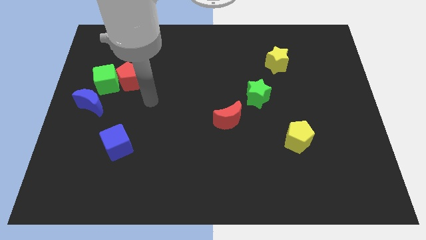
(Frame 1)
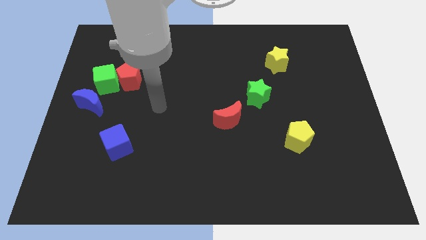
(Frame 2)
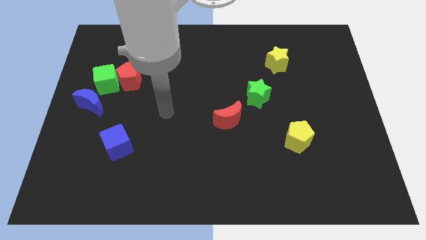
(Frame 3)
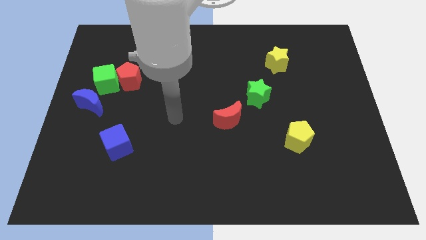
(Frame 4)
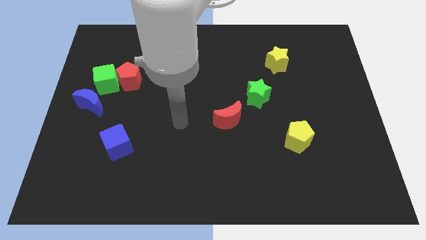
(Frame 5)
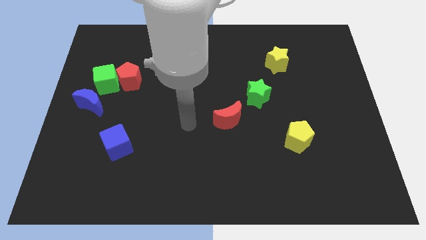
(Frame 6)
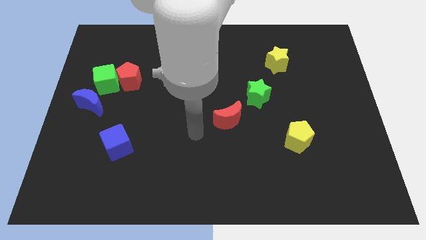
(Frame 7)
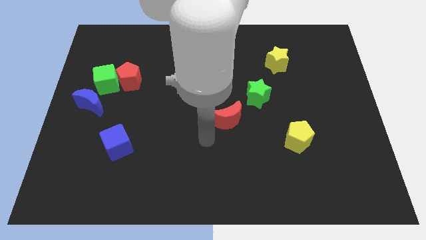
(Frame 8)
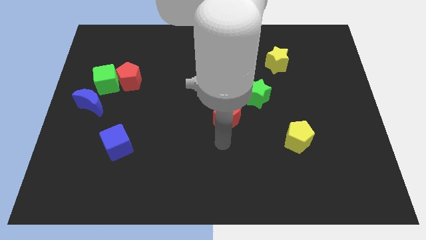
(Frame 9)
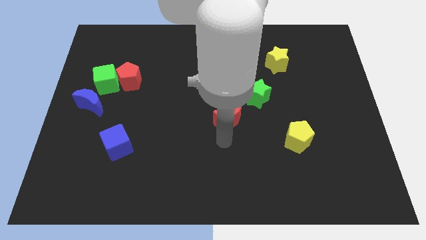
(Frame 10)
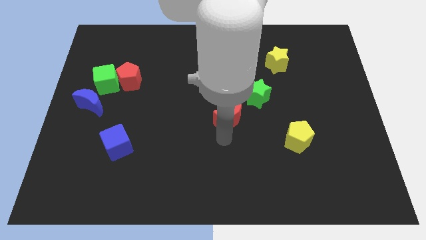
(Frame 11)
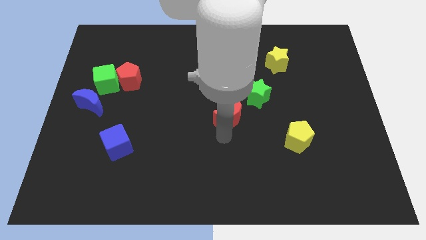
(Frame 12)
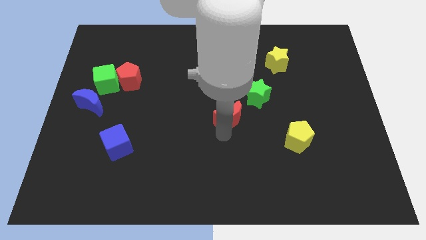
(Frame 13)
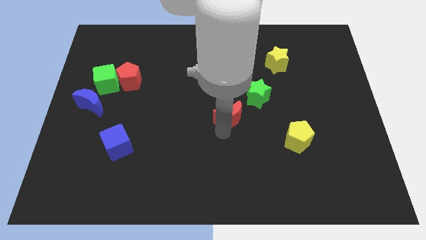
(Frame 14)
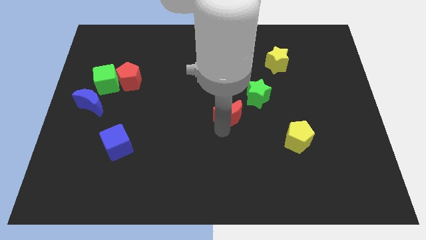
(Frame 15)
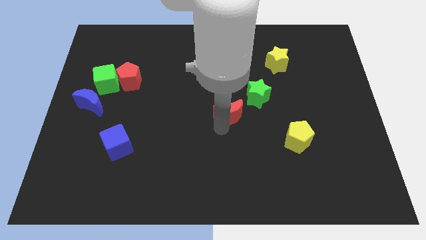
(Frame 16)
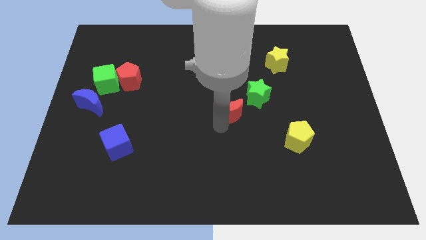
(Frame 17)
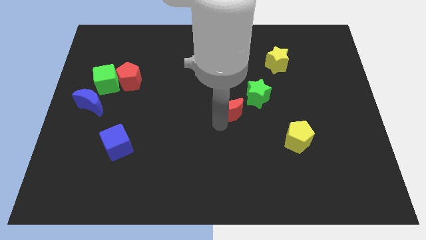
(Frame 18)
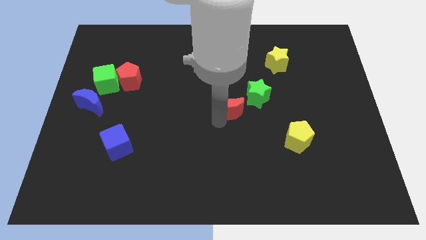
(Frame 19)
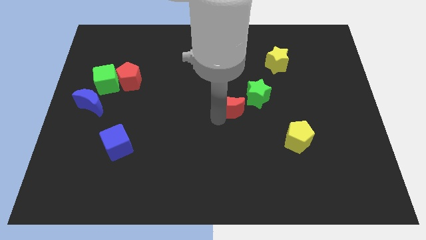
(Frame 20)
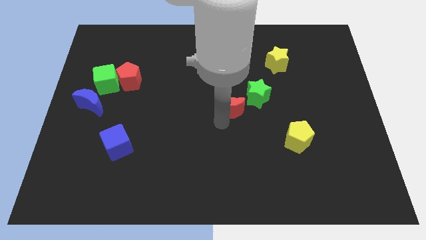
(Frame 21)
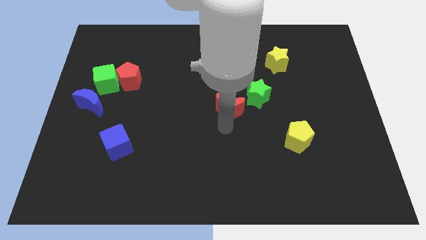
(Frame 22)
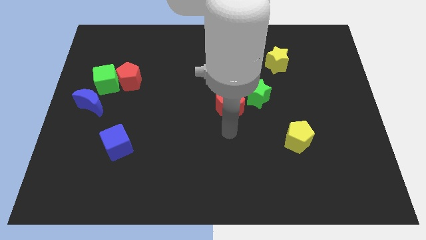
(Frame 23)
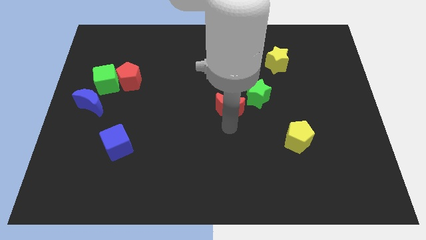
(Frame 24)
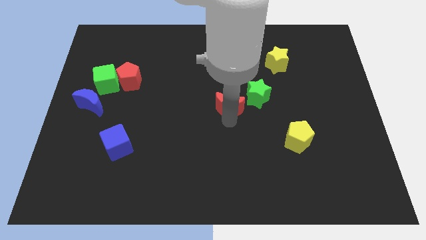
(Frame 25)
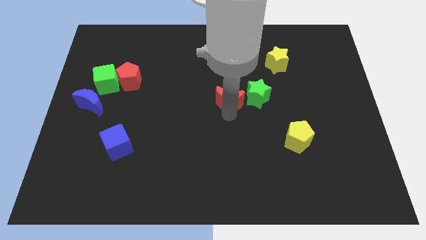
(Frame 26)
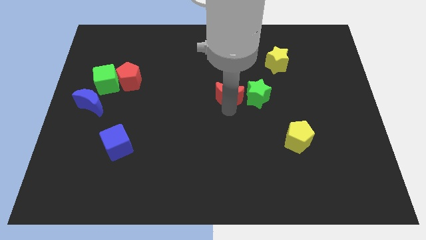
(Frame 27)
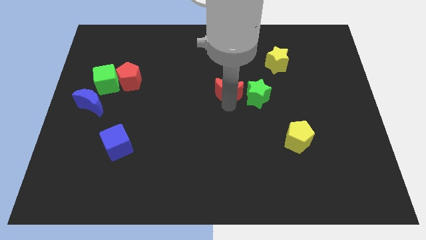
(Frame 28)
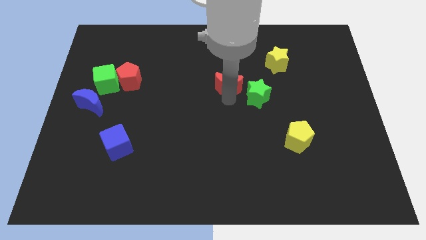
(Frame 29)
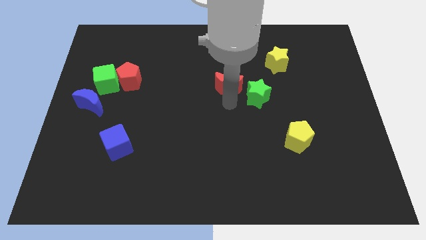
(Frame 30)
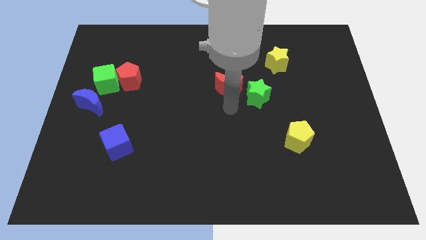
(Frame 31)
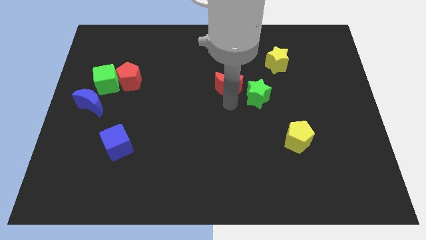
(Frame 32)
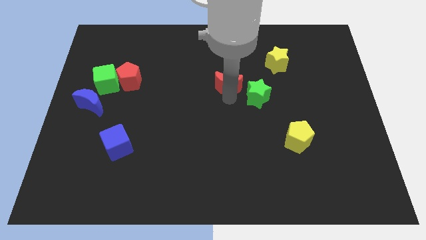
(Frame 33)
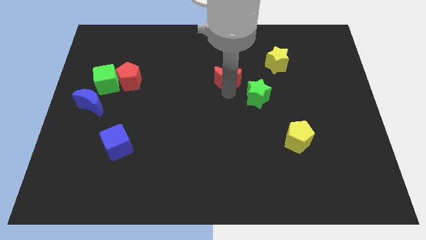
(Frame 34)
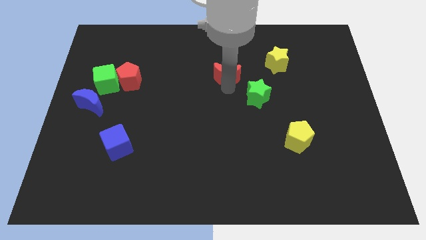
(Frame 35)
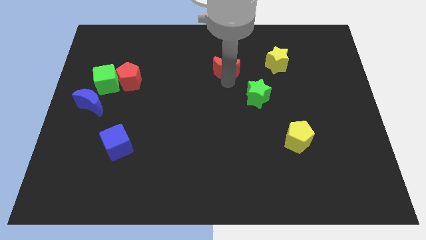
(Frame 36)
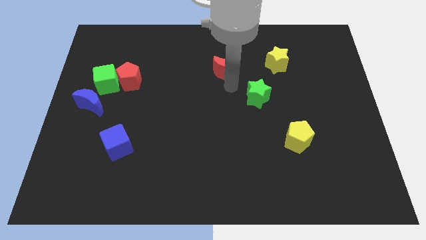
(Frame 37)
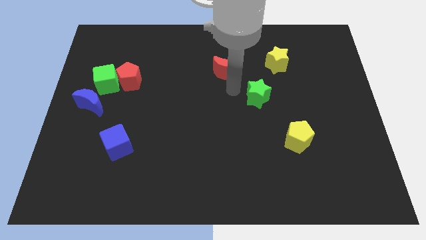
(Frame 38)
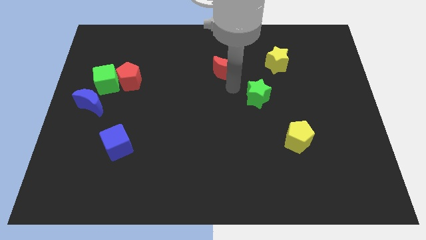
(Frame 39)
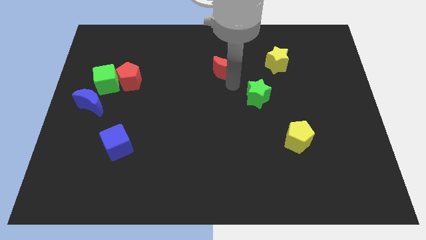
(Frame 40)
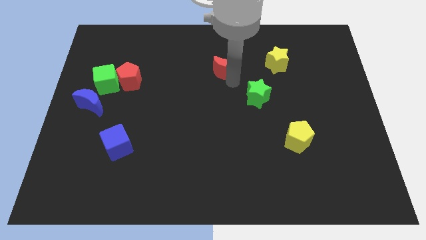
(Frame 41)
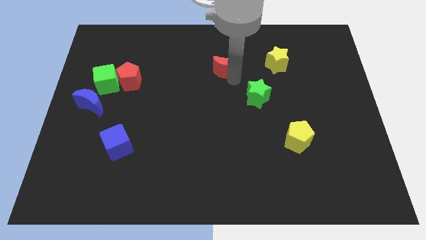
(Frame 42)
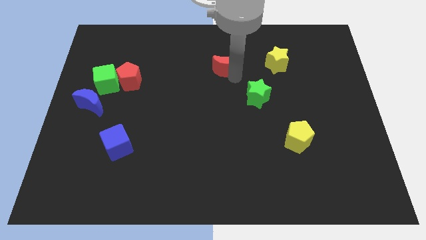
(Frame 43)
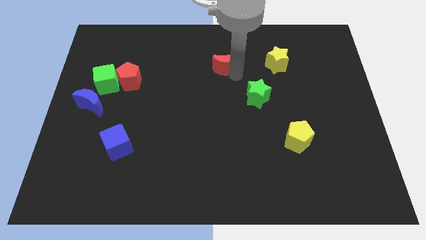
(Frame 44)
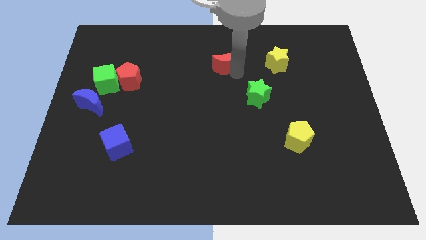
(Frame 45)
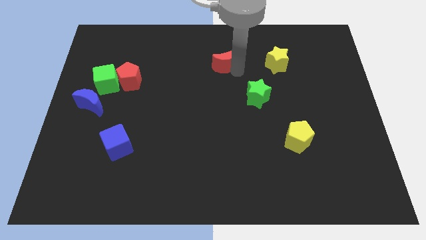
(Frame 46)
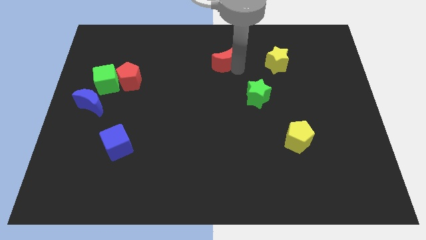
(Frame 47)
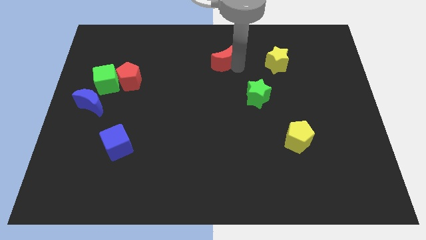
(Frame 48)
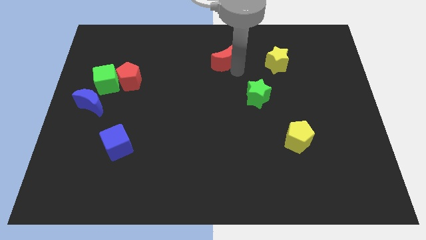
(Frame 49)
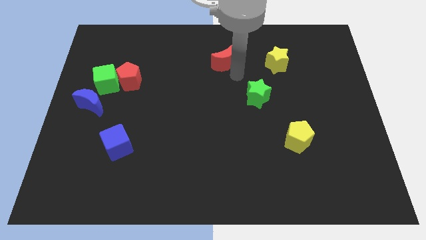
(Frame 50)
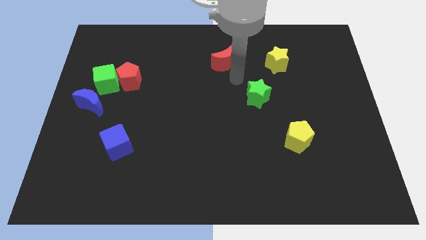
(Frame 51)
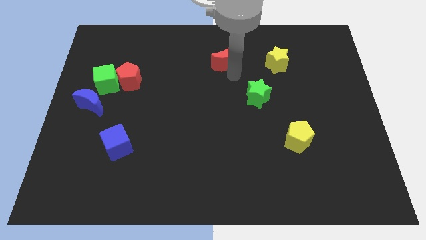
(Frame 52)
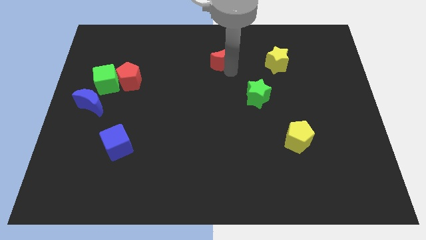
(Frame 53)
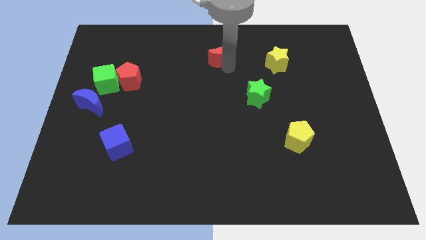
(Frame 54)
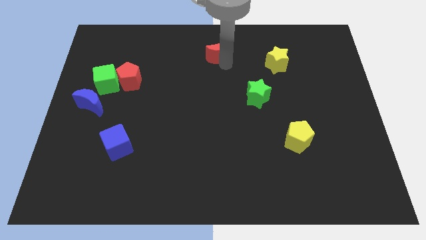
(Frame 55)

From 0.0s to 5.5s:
move the red moon to the top side
